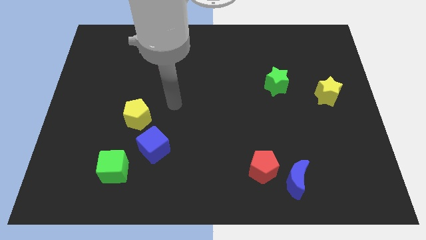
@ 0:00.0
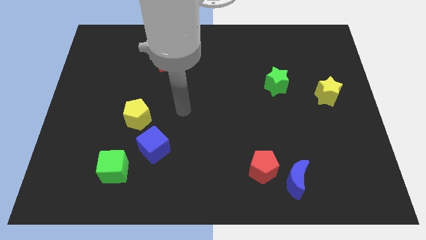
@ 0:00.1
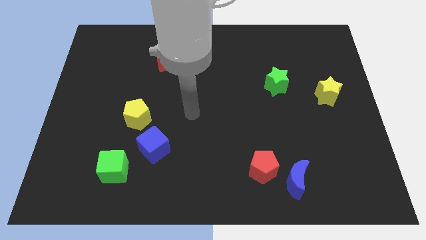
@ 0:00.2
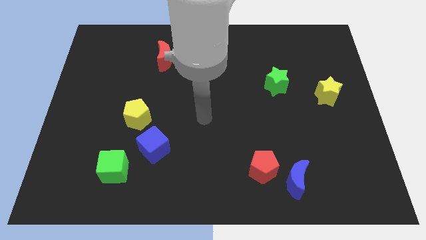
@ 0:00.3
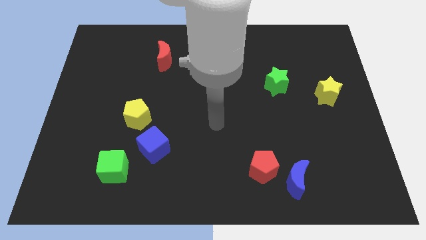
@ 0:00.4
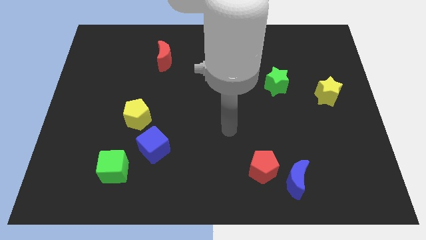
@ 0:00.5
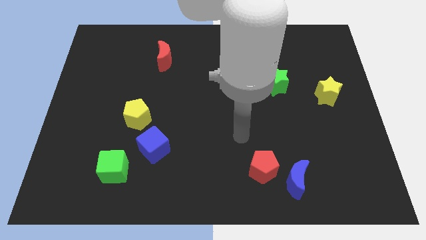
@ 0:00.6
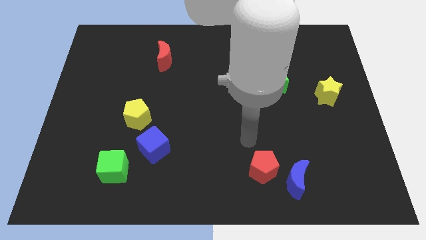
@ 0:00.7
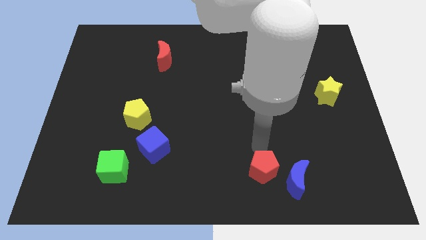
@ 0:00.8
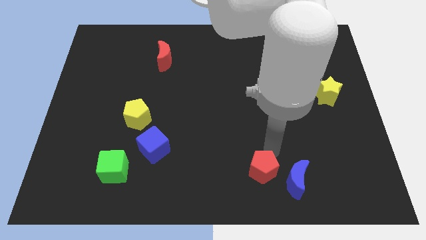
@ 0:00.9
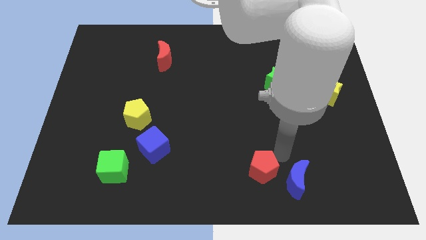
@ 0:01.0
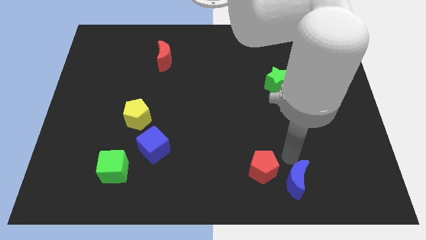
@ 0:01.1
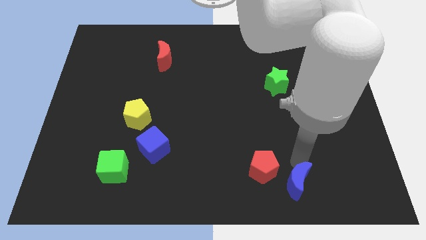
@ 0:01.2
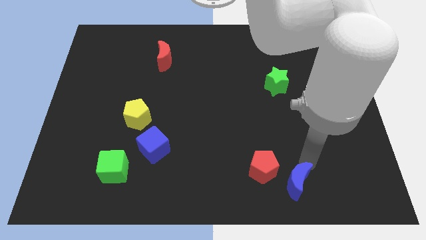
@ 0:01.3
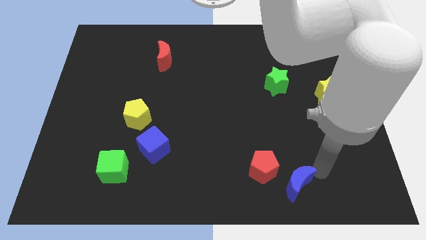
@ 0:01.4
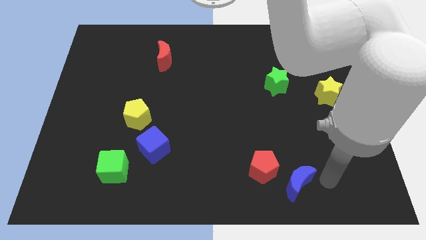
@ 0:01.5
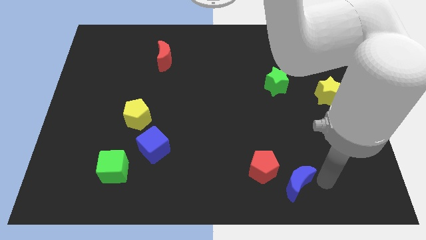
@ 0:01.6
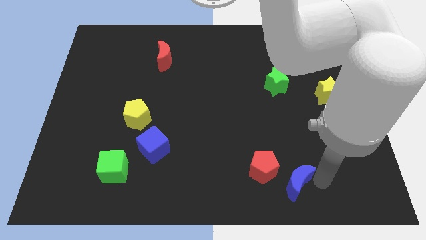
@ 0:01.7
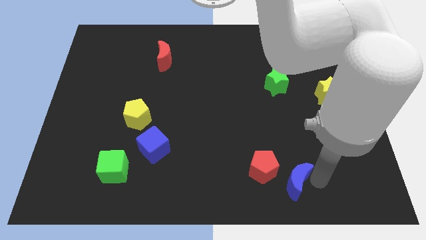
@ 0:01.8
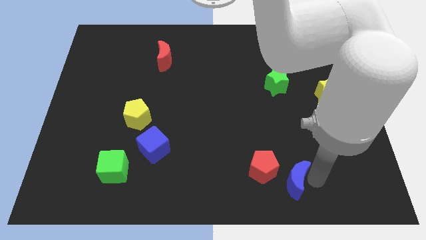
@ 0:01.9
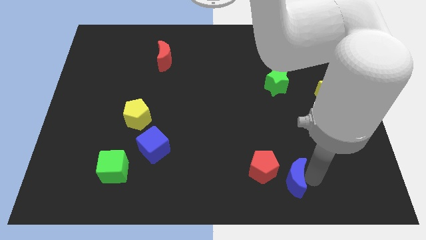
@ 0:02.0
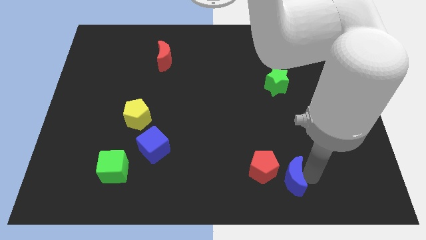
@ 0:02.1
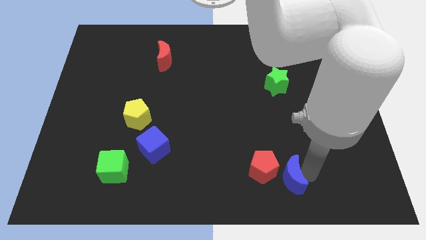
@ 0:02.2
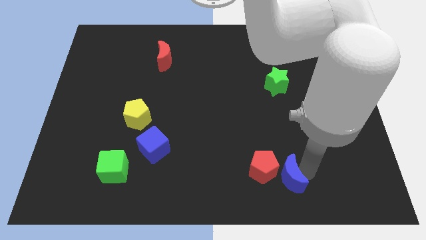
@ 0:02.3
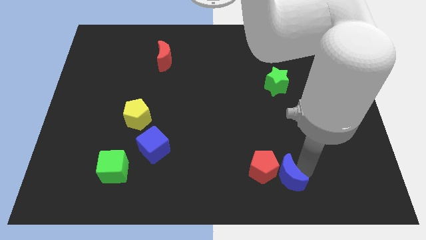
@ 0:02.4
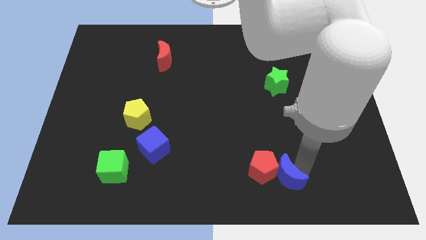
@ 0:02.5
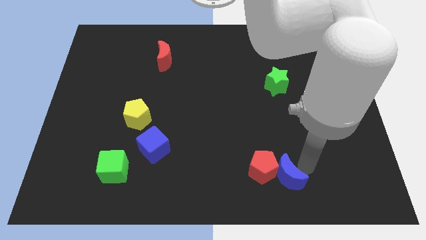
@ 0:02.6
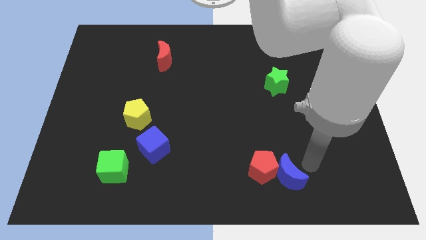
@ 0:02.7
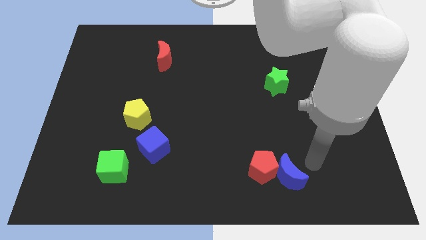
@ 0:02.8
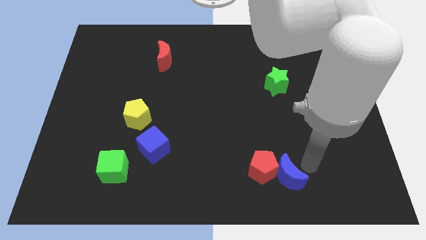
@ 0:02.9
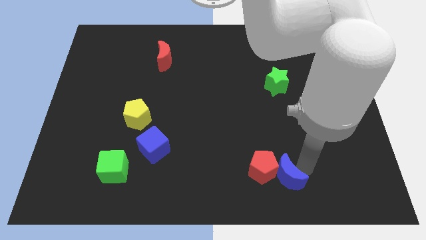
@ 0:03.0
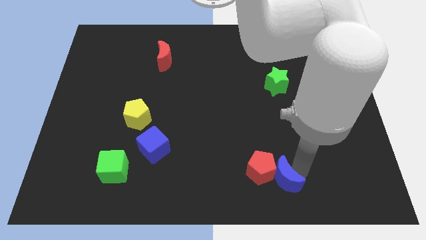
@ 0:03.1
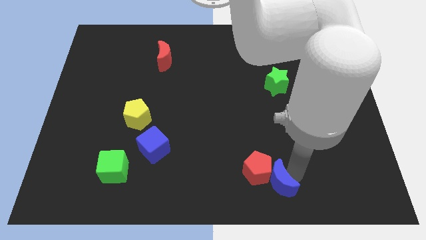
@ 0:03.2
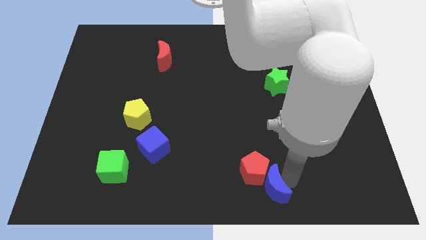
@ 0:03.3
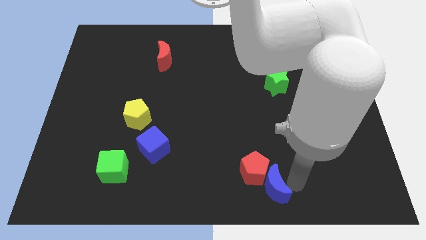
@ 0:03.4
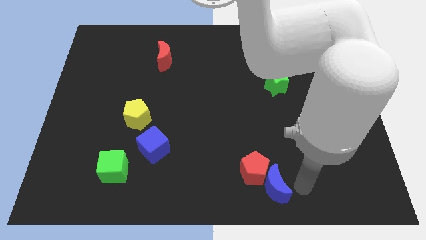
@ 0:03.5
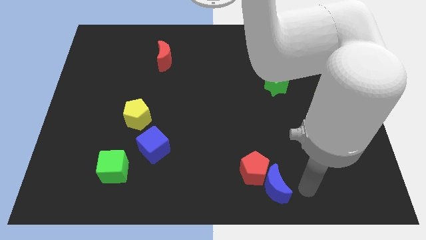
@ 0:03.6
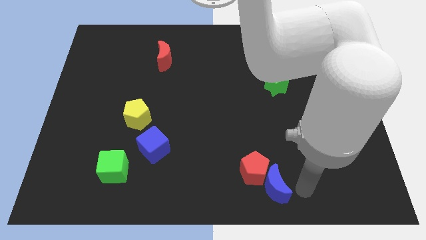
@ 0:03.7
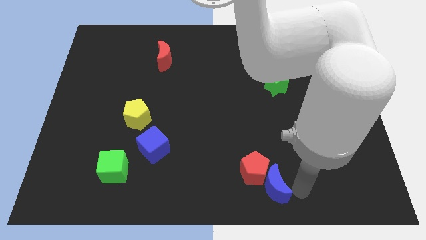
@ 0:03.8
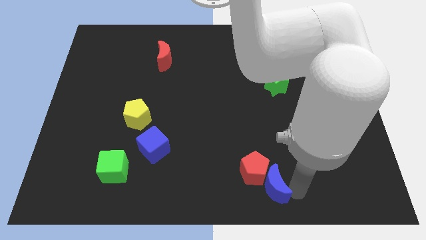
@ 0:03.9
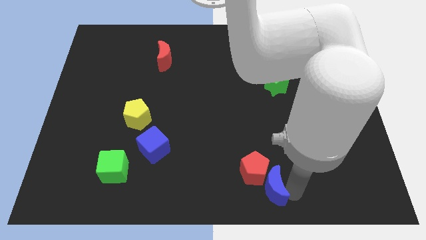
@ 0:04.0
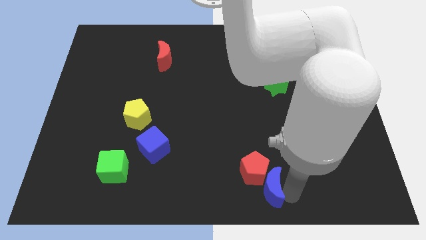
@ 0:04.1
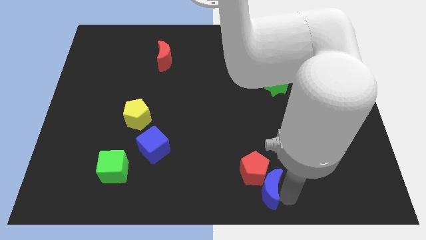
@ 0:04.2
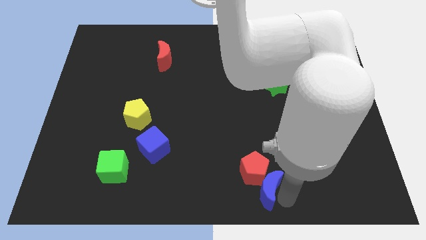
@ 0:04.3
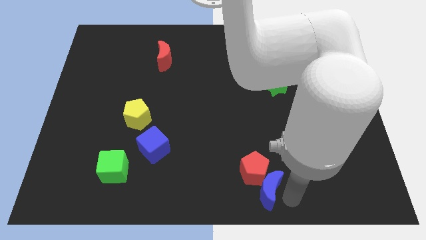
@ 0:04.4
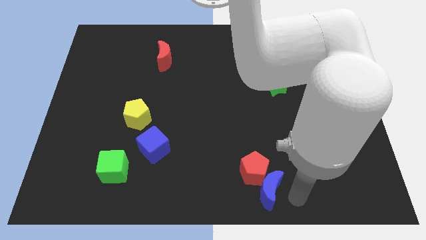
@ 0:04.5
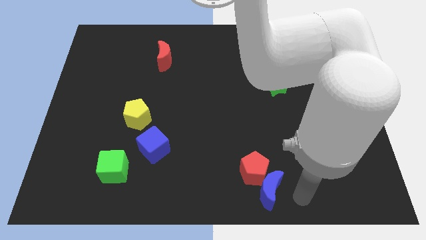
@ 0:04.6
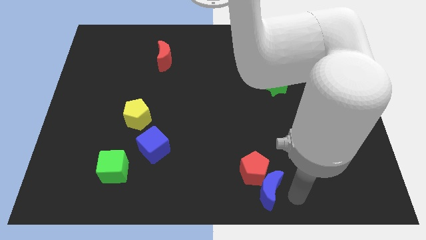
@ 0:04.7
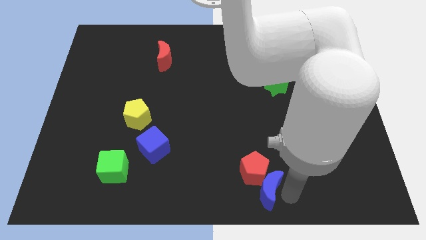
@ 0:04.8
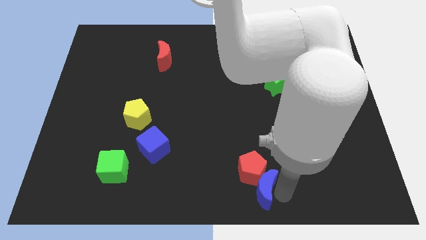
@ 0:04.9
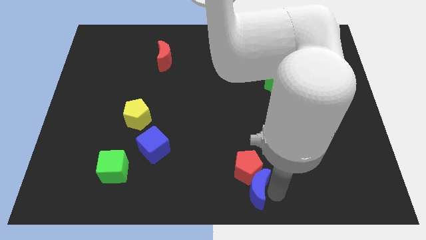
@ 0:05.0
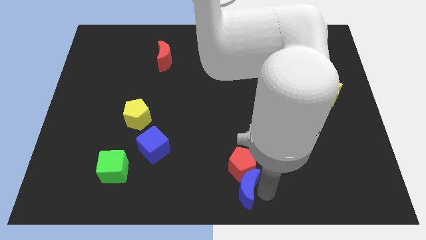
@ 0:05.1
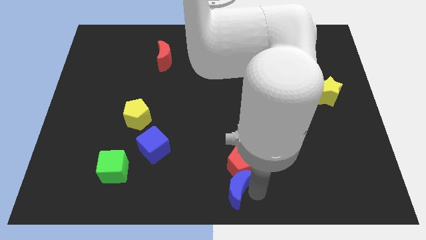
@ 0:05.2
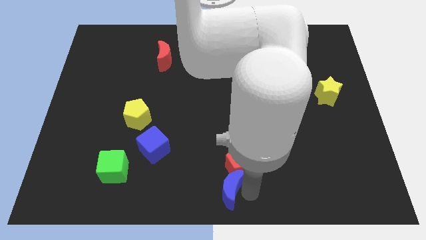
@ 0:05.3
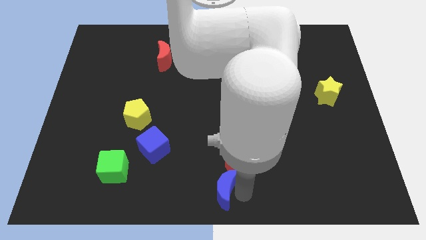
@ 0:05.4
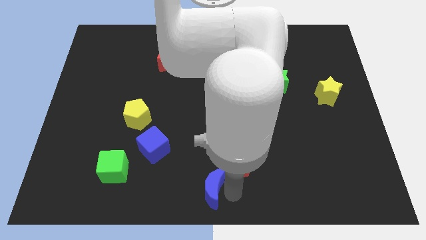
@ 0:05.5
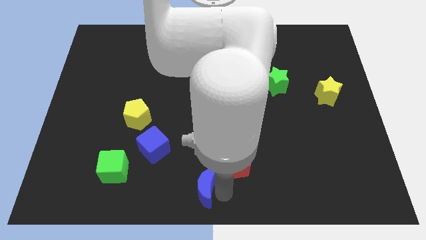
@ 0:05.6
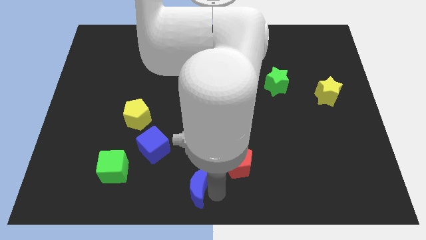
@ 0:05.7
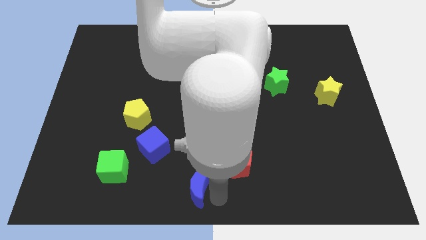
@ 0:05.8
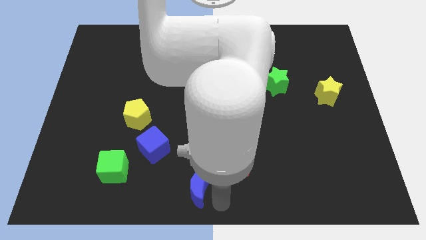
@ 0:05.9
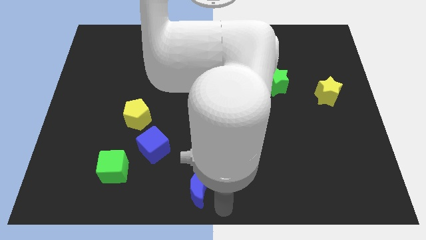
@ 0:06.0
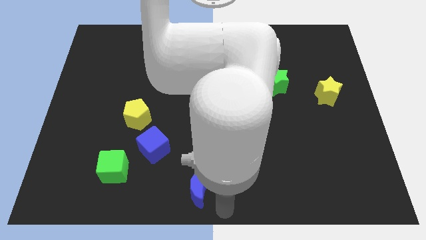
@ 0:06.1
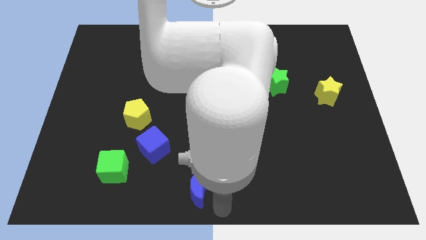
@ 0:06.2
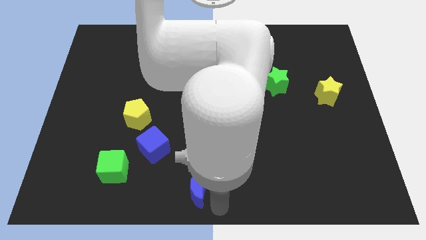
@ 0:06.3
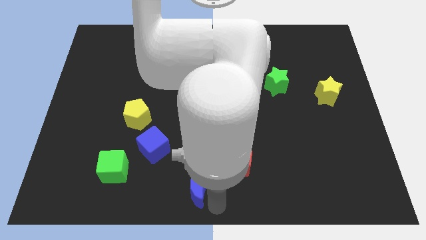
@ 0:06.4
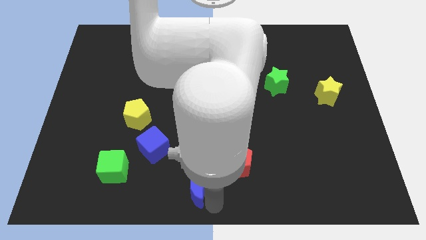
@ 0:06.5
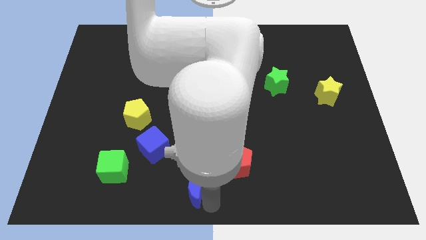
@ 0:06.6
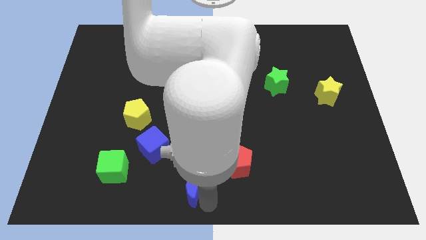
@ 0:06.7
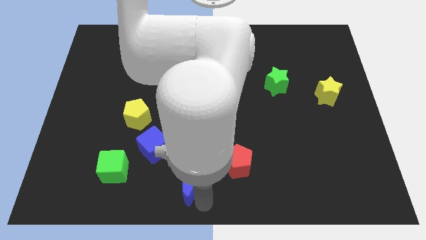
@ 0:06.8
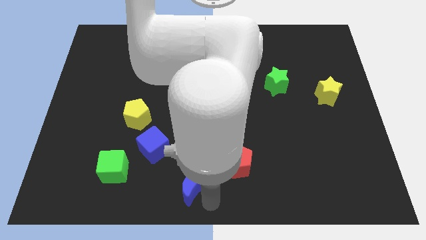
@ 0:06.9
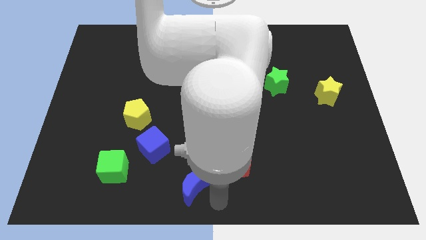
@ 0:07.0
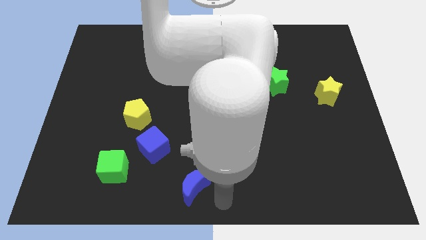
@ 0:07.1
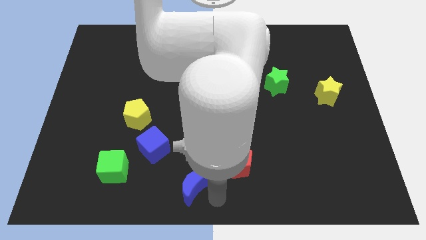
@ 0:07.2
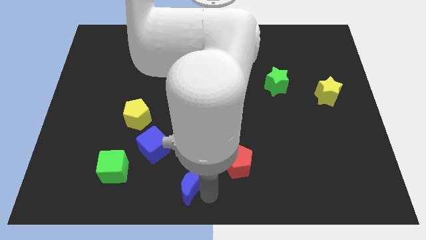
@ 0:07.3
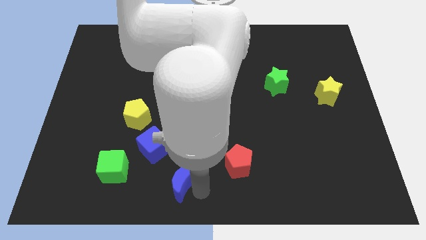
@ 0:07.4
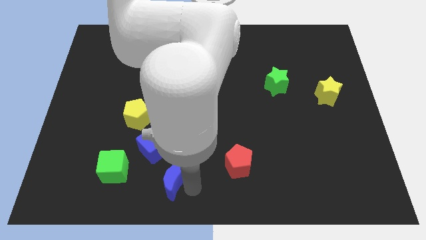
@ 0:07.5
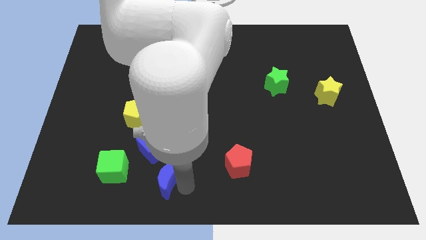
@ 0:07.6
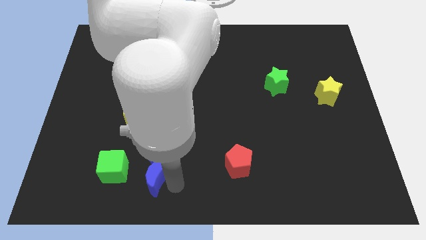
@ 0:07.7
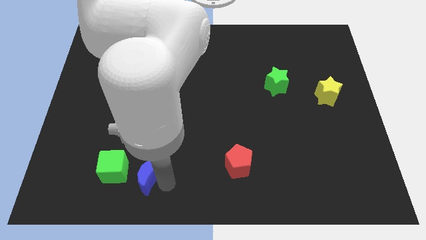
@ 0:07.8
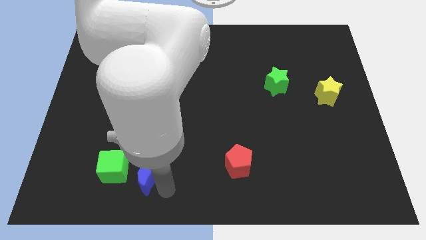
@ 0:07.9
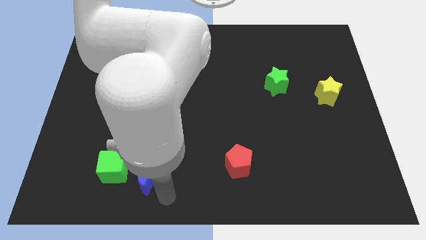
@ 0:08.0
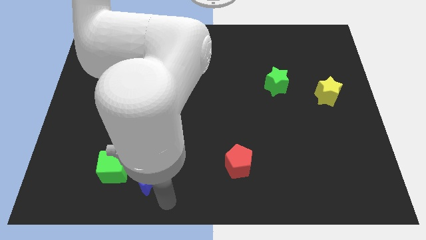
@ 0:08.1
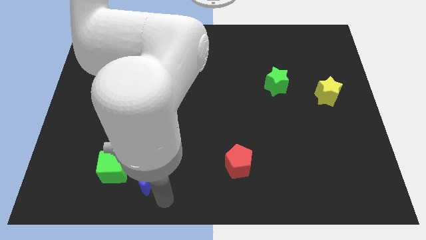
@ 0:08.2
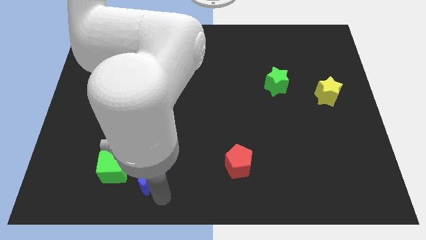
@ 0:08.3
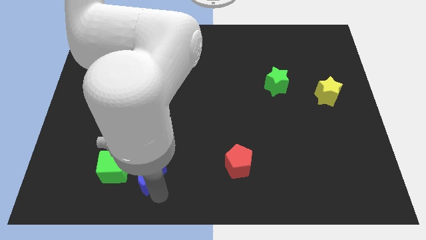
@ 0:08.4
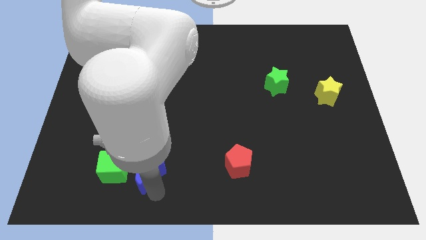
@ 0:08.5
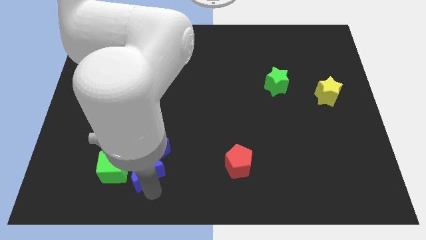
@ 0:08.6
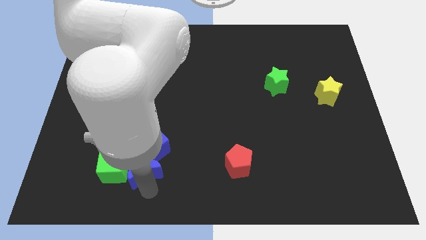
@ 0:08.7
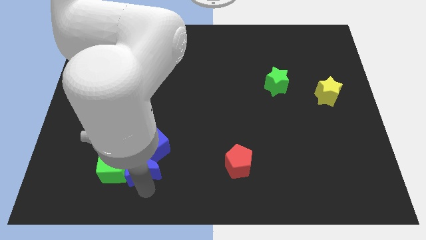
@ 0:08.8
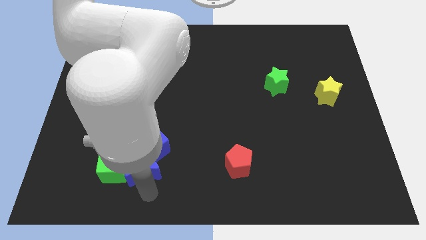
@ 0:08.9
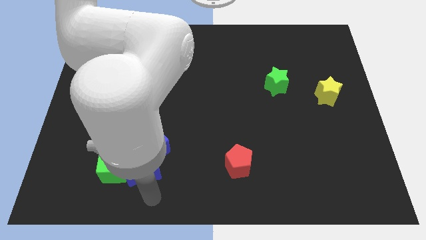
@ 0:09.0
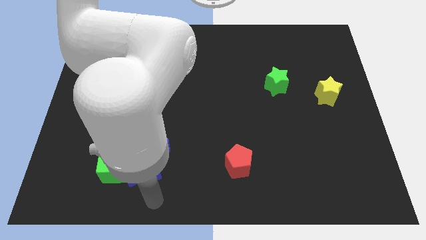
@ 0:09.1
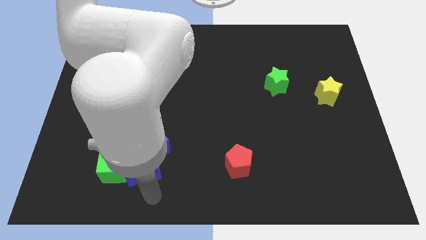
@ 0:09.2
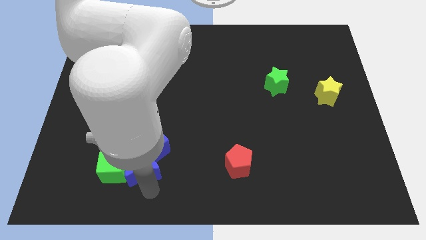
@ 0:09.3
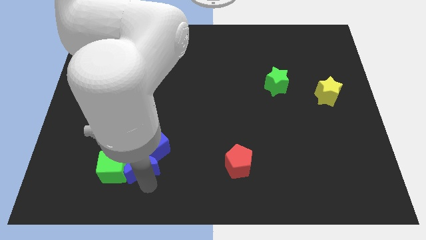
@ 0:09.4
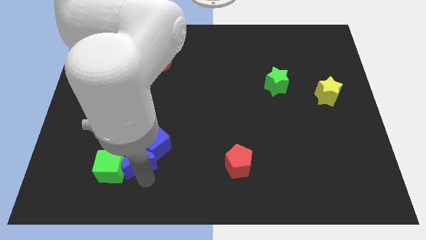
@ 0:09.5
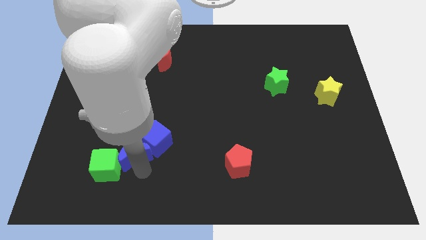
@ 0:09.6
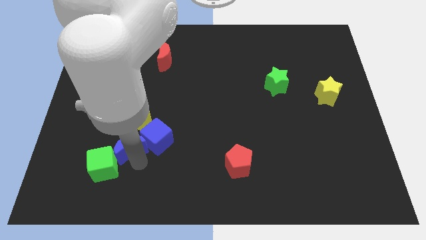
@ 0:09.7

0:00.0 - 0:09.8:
push the blue moon to the top of the green cube
